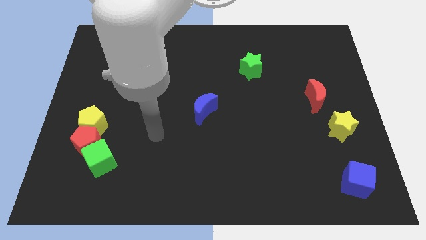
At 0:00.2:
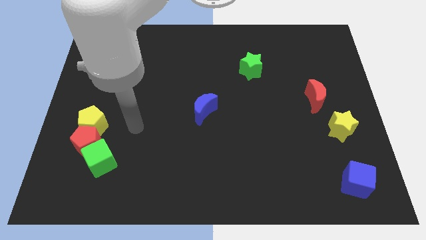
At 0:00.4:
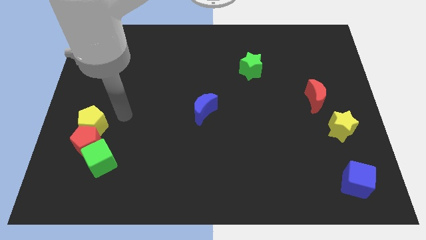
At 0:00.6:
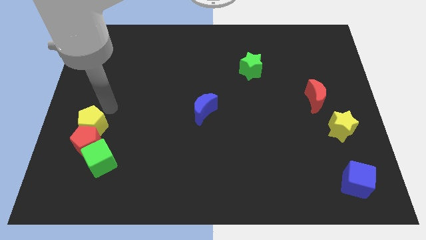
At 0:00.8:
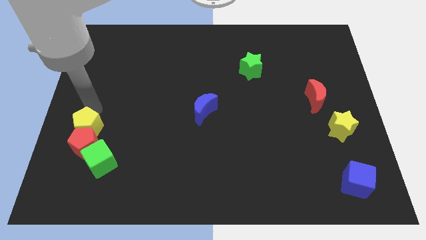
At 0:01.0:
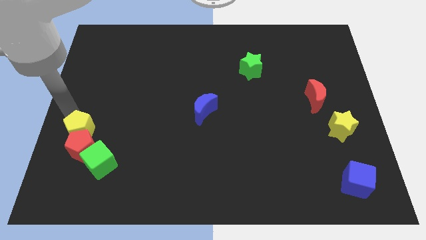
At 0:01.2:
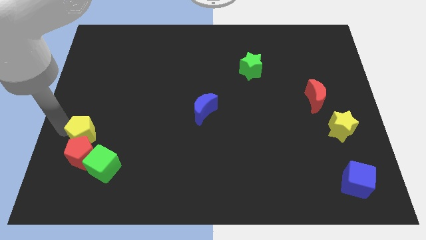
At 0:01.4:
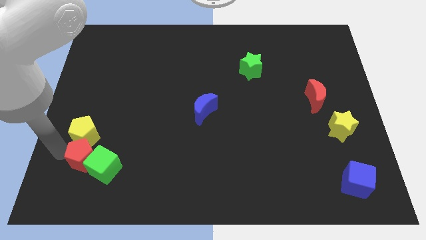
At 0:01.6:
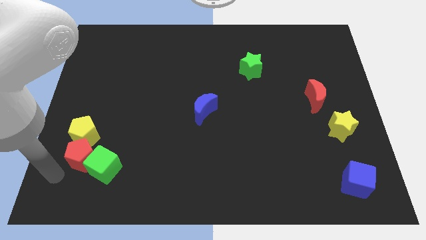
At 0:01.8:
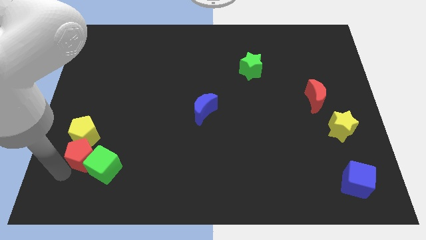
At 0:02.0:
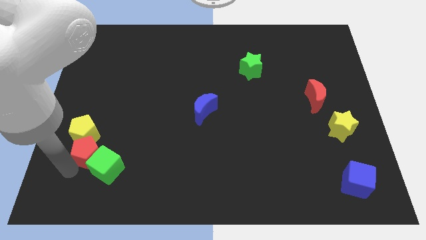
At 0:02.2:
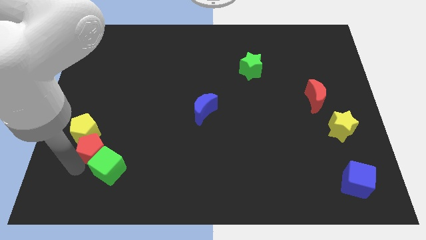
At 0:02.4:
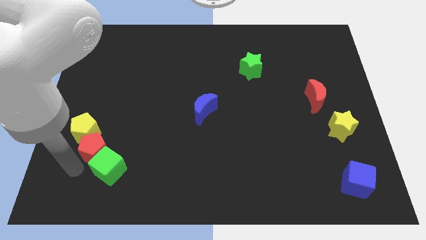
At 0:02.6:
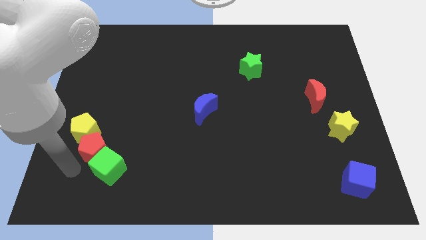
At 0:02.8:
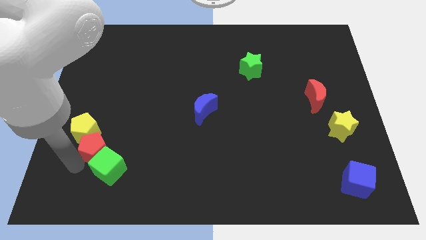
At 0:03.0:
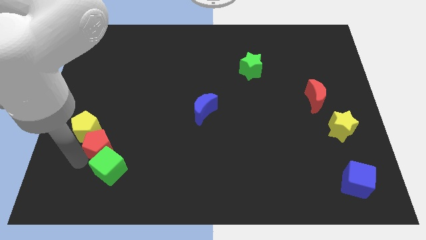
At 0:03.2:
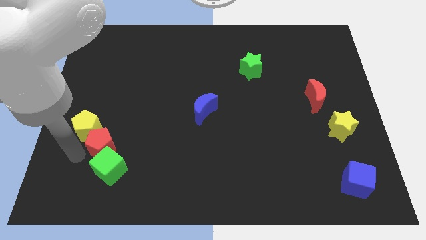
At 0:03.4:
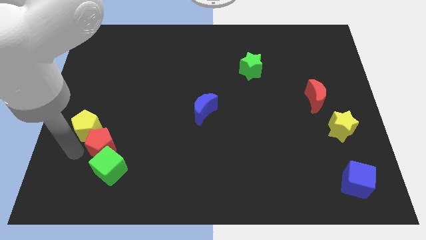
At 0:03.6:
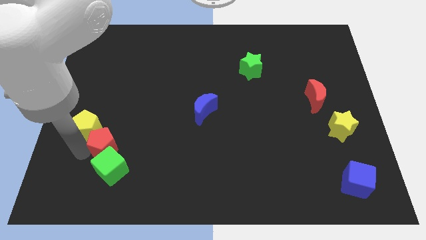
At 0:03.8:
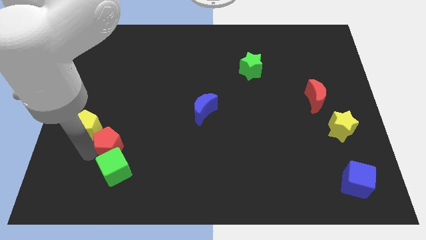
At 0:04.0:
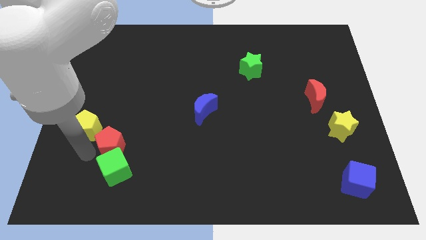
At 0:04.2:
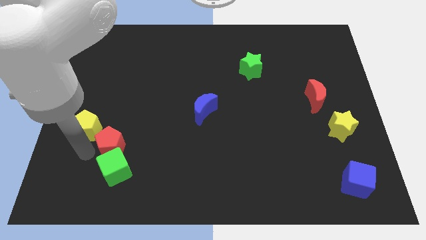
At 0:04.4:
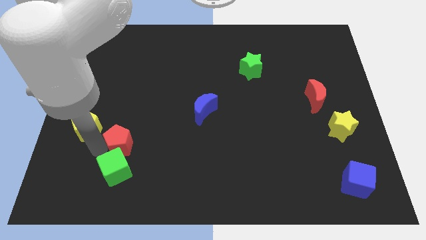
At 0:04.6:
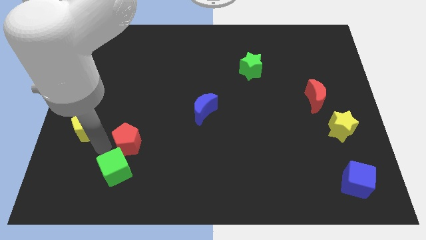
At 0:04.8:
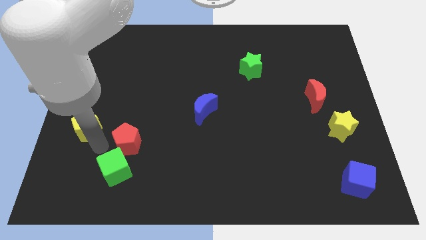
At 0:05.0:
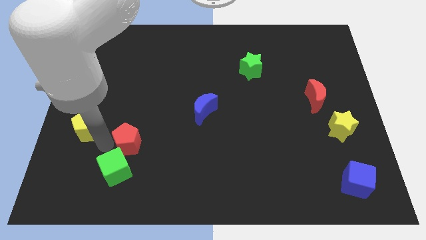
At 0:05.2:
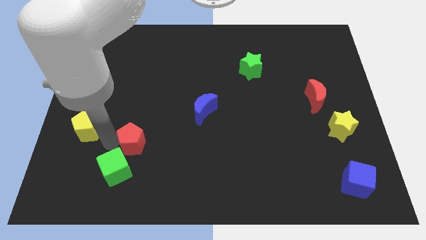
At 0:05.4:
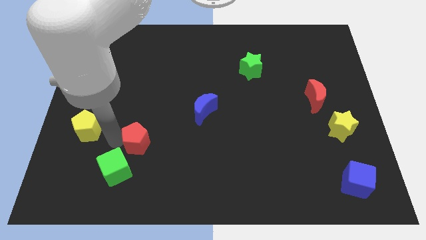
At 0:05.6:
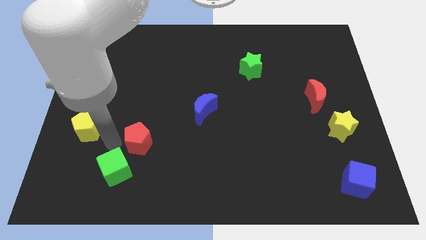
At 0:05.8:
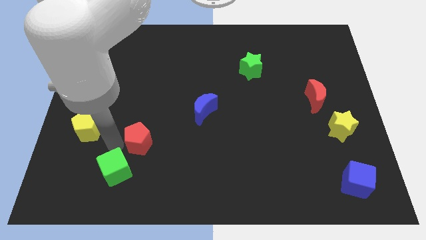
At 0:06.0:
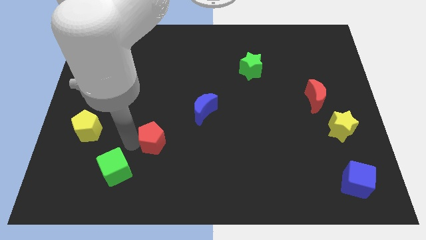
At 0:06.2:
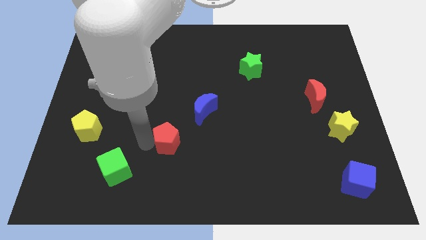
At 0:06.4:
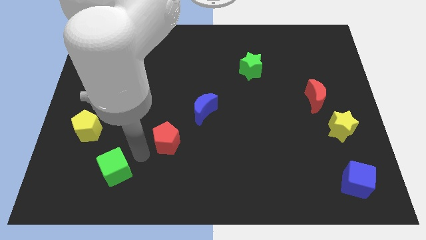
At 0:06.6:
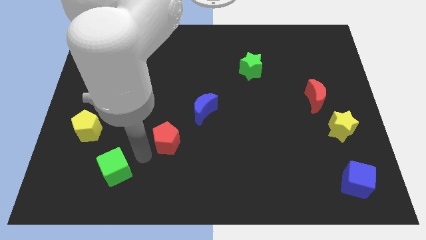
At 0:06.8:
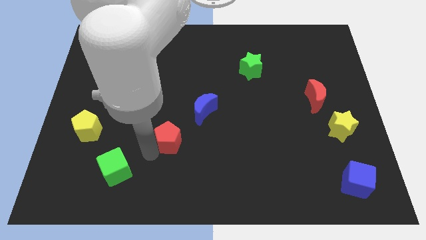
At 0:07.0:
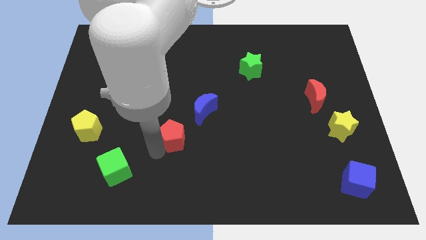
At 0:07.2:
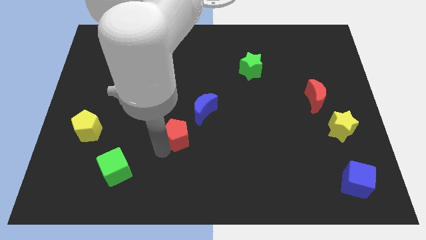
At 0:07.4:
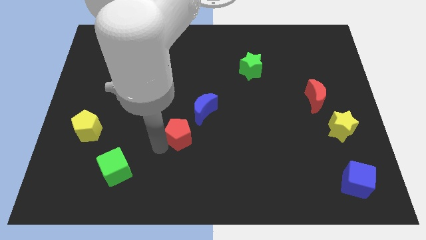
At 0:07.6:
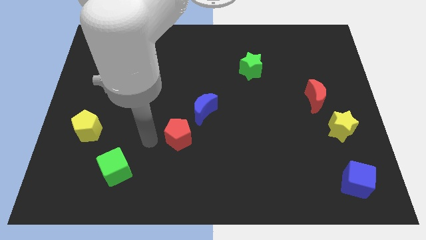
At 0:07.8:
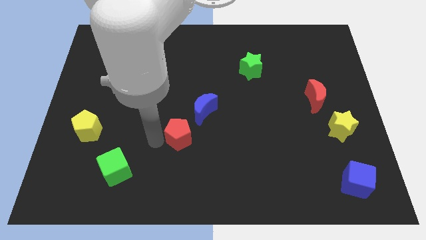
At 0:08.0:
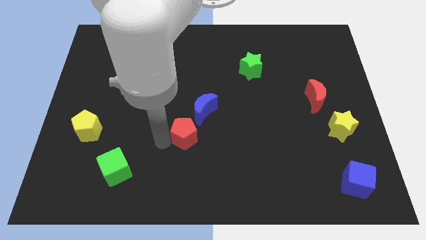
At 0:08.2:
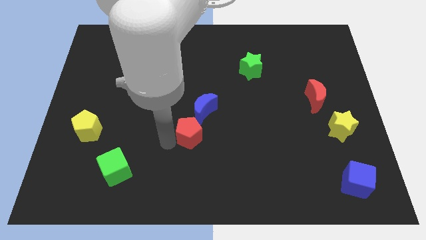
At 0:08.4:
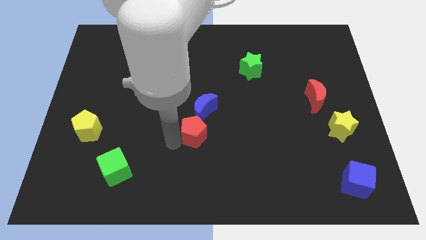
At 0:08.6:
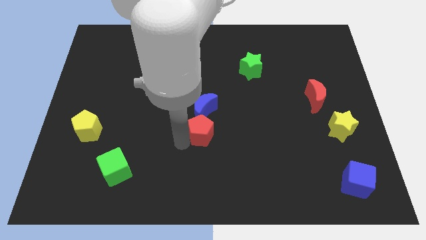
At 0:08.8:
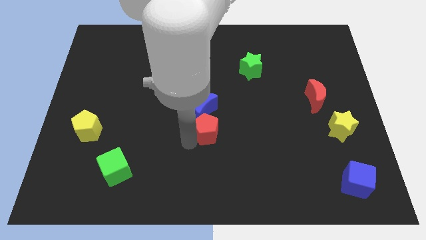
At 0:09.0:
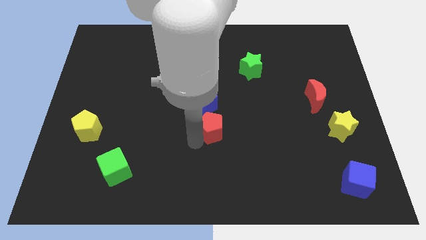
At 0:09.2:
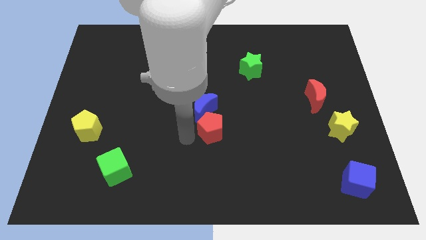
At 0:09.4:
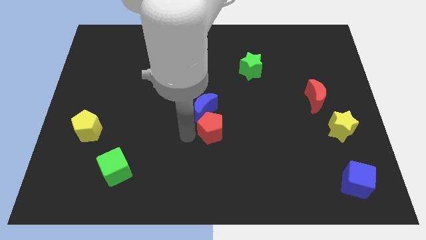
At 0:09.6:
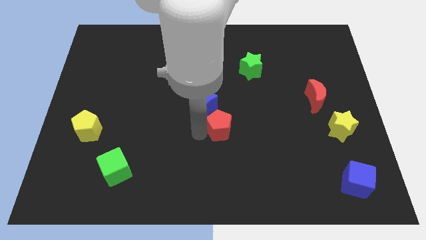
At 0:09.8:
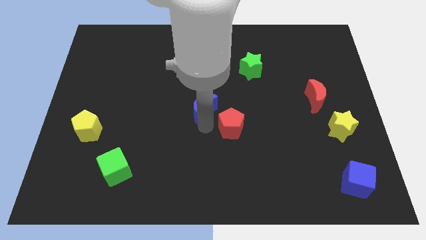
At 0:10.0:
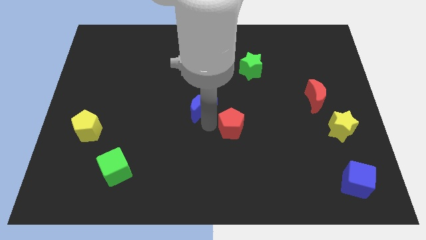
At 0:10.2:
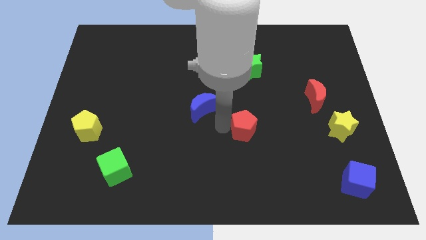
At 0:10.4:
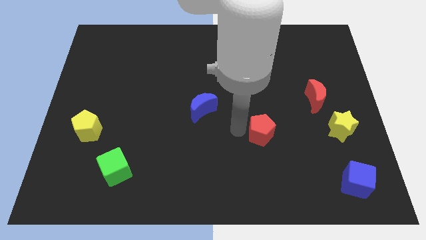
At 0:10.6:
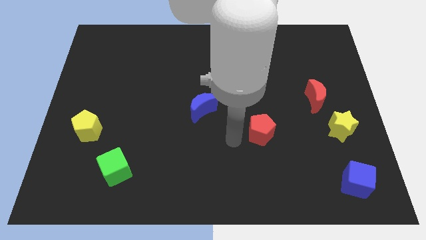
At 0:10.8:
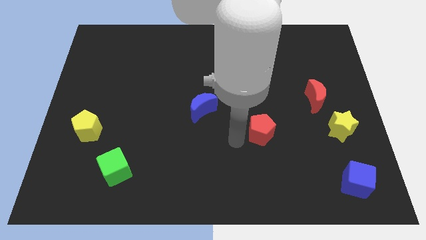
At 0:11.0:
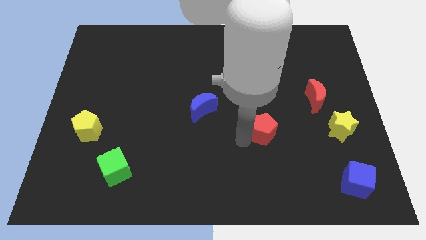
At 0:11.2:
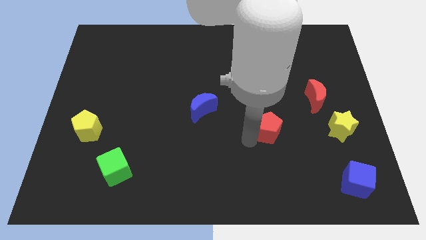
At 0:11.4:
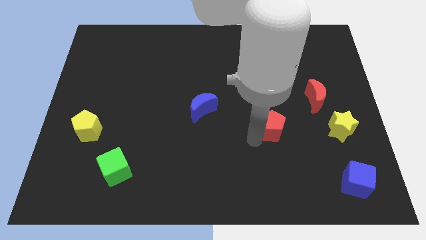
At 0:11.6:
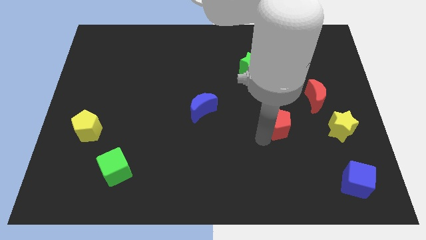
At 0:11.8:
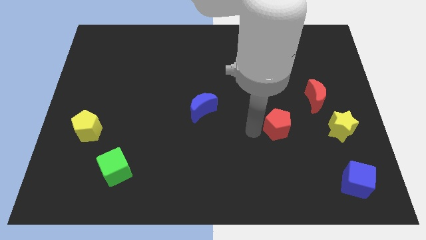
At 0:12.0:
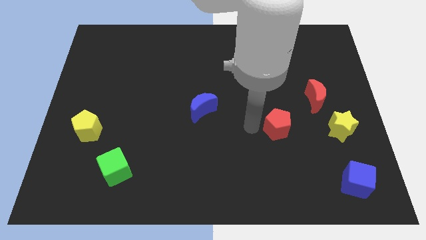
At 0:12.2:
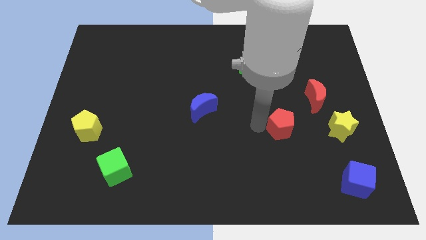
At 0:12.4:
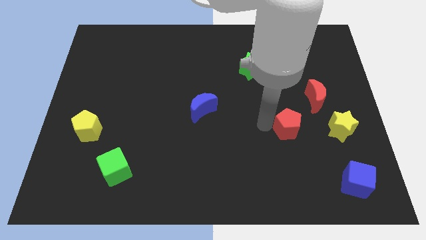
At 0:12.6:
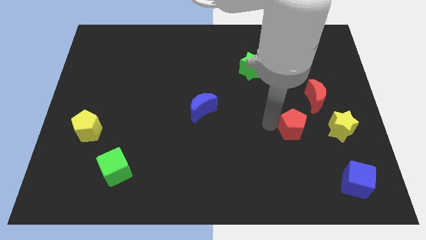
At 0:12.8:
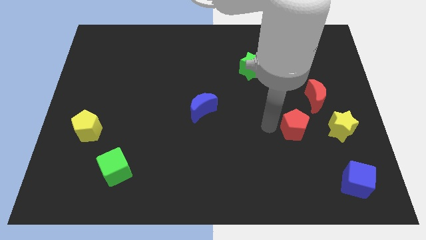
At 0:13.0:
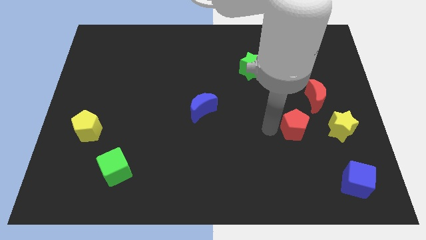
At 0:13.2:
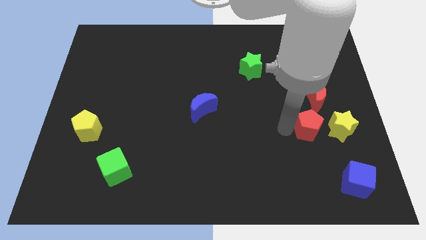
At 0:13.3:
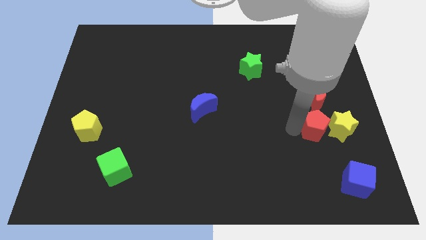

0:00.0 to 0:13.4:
put the red pentagon towards the yellow star
